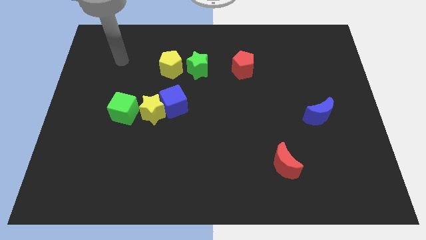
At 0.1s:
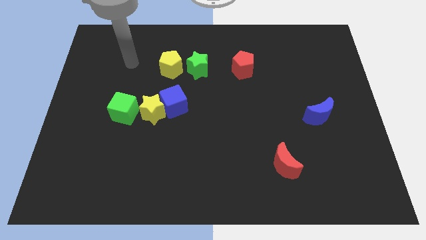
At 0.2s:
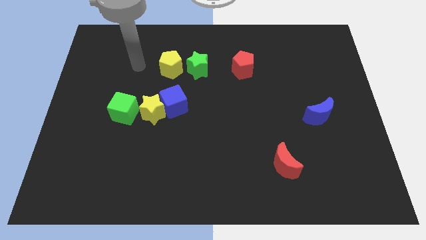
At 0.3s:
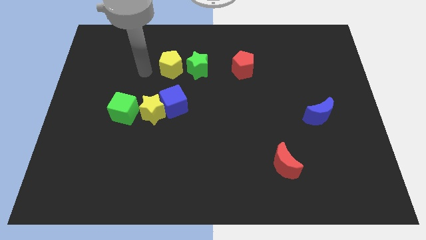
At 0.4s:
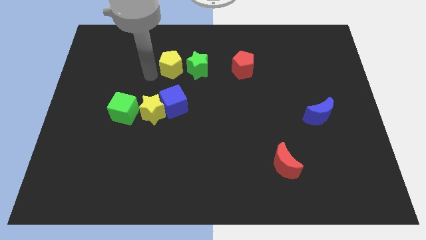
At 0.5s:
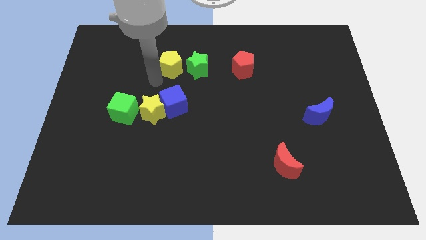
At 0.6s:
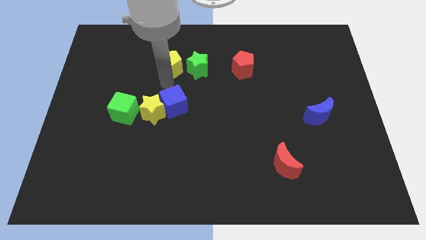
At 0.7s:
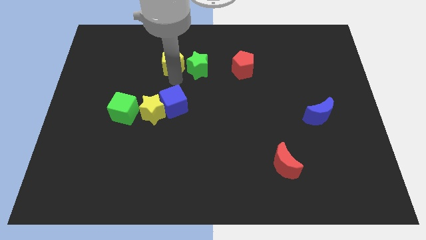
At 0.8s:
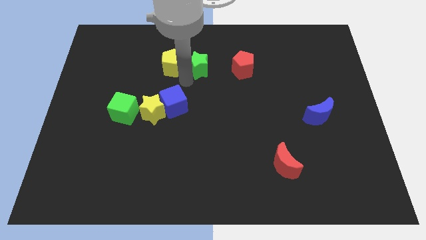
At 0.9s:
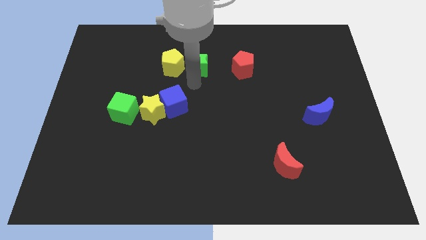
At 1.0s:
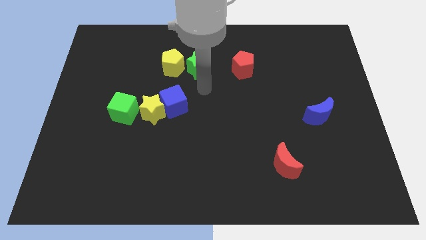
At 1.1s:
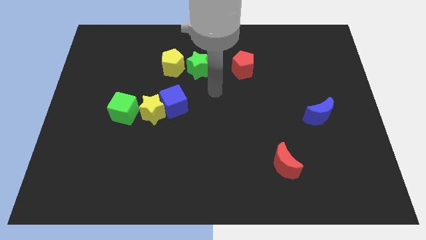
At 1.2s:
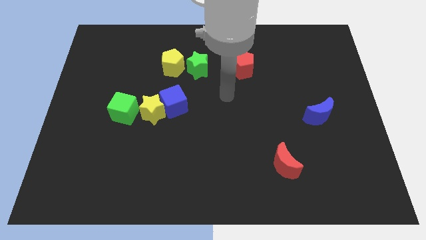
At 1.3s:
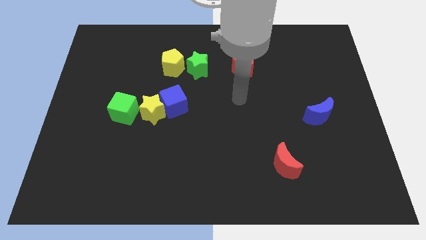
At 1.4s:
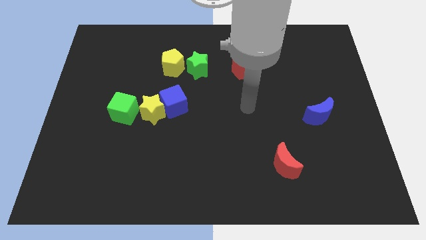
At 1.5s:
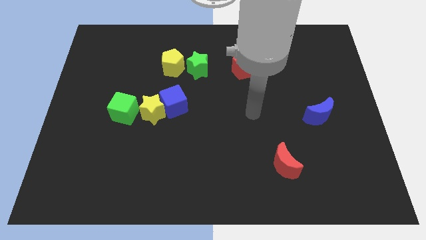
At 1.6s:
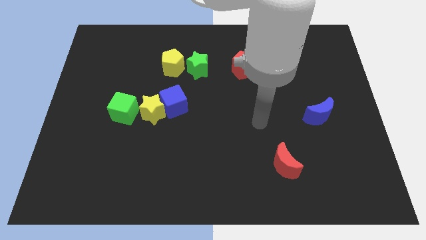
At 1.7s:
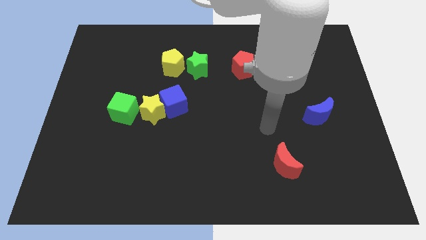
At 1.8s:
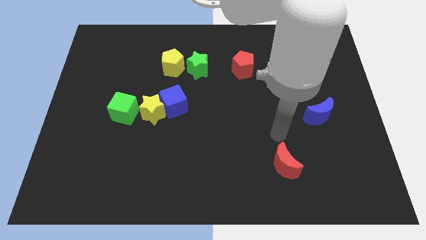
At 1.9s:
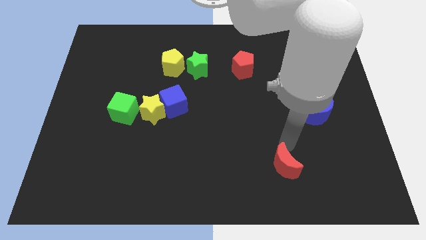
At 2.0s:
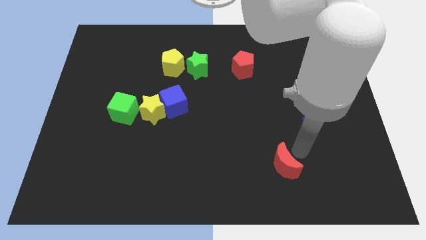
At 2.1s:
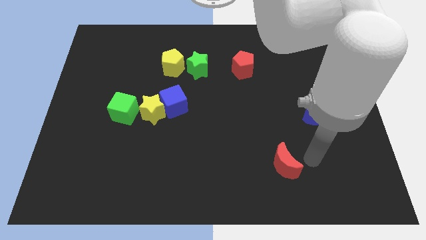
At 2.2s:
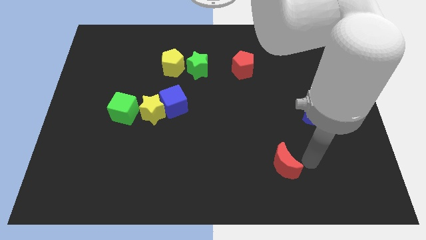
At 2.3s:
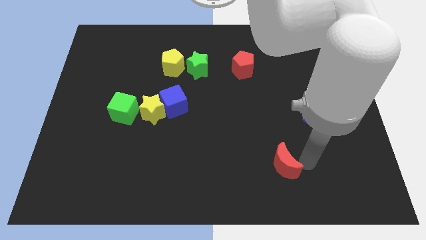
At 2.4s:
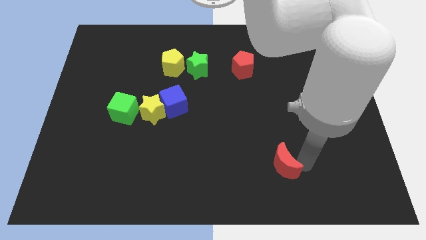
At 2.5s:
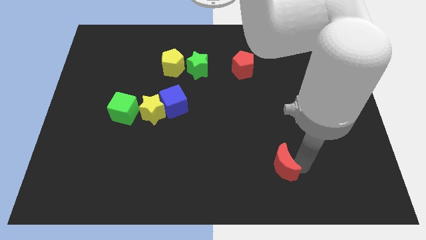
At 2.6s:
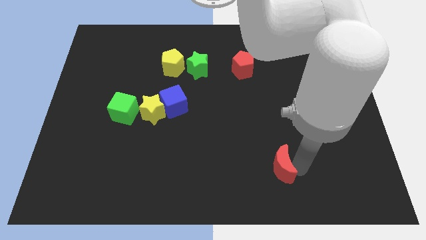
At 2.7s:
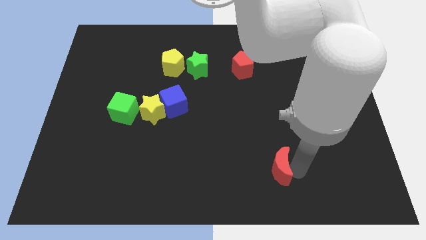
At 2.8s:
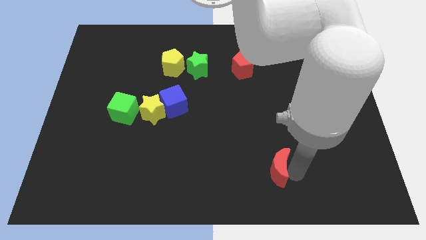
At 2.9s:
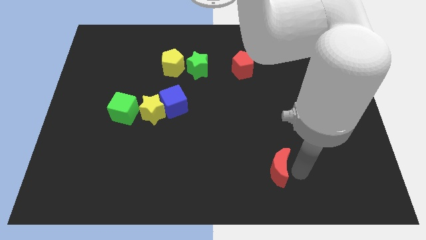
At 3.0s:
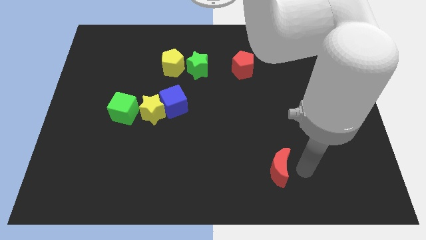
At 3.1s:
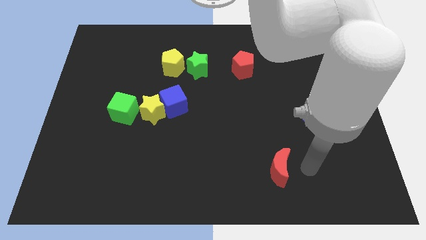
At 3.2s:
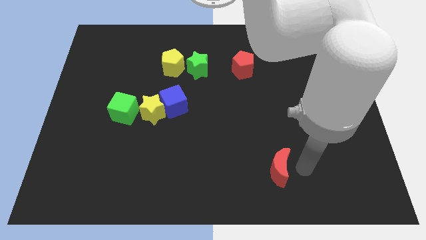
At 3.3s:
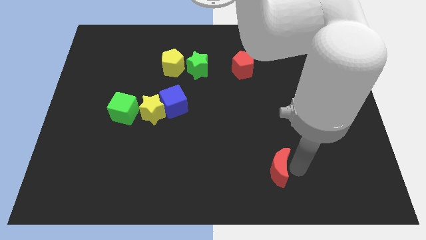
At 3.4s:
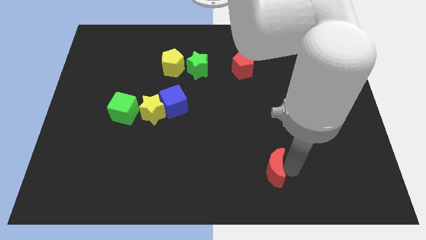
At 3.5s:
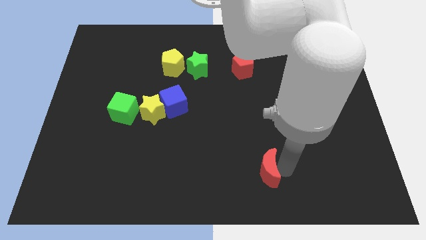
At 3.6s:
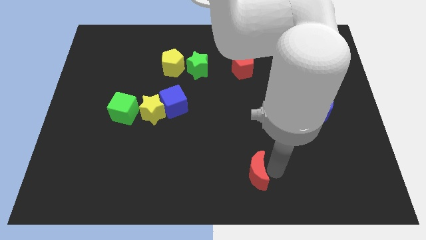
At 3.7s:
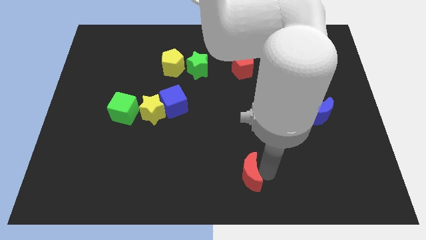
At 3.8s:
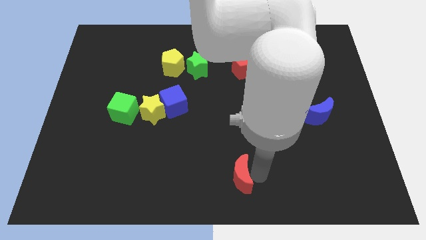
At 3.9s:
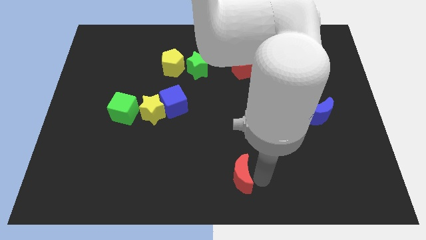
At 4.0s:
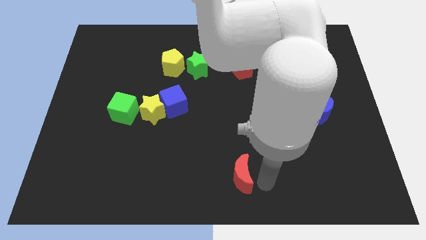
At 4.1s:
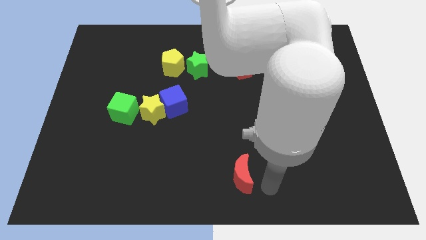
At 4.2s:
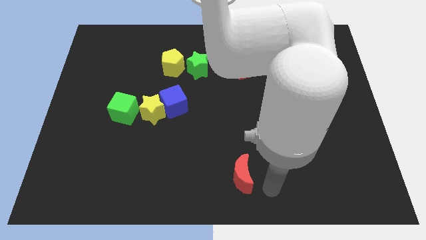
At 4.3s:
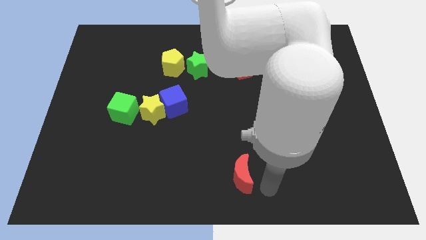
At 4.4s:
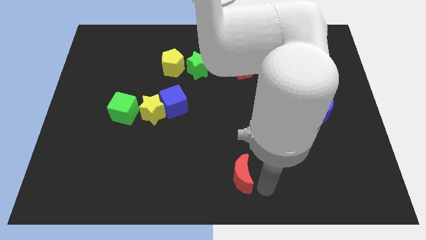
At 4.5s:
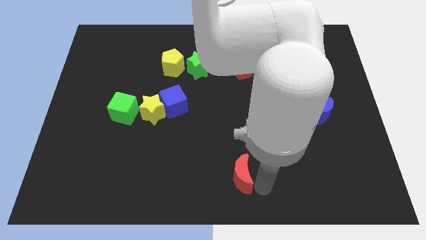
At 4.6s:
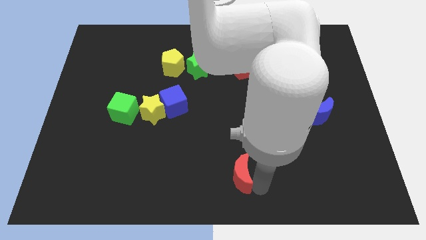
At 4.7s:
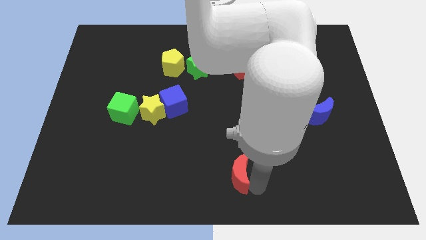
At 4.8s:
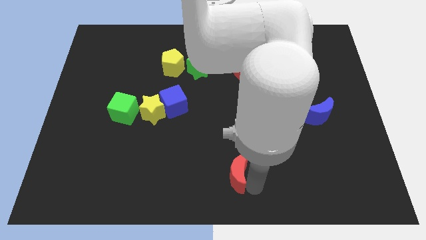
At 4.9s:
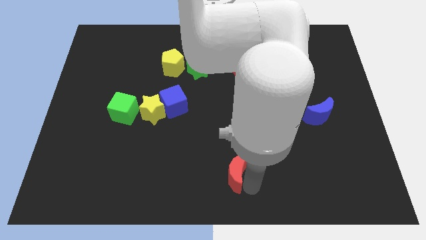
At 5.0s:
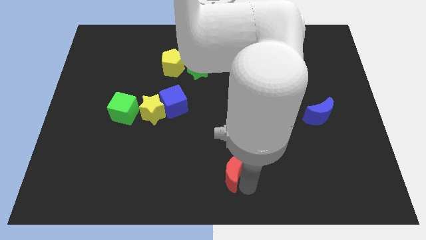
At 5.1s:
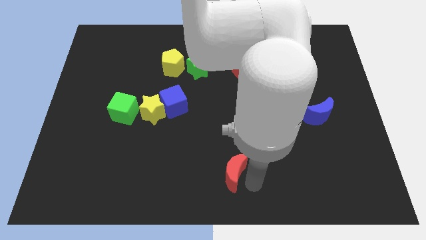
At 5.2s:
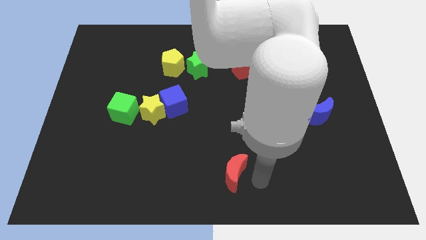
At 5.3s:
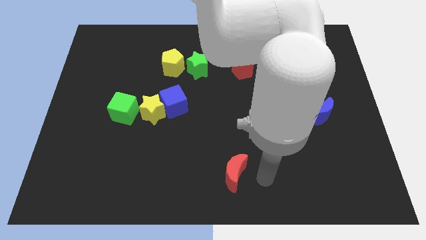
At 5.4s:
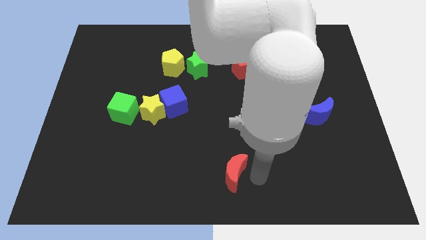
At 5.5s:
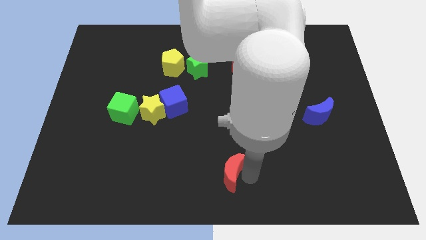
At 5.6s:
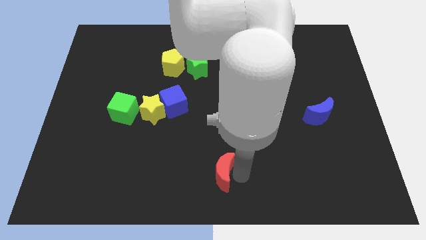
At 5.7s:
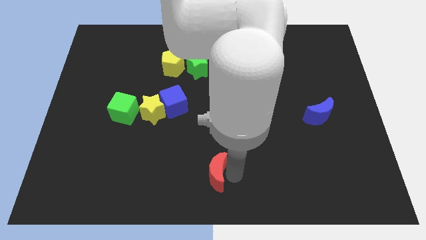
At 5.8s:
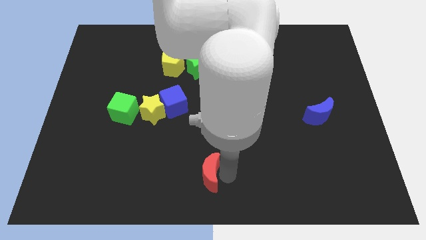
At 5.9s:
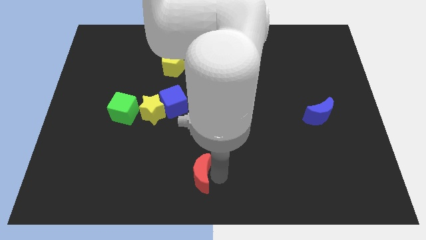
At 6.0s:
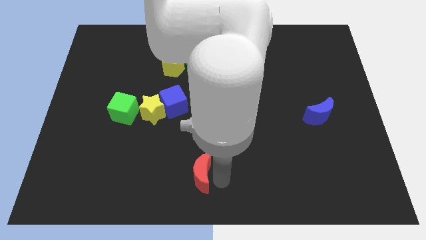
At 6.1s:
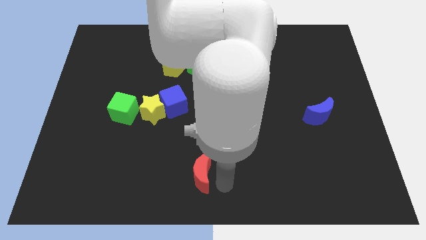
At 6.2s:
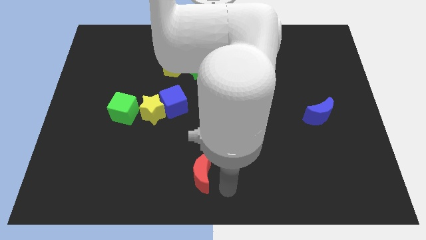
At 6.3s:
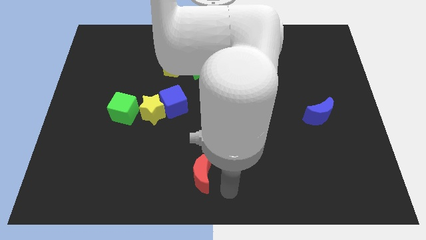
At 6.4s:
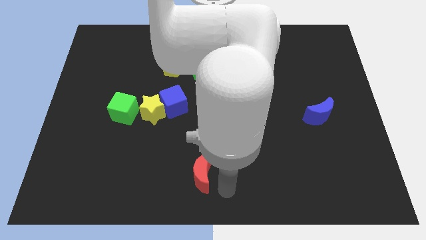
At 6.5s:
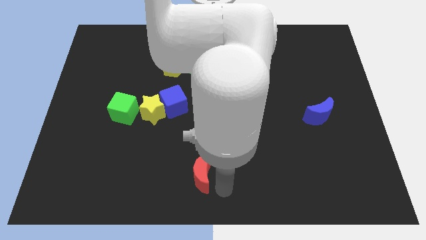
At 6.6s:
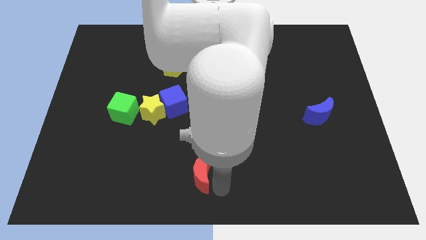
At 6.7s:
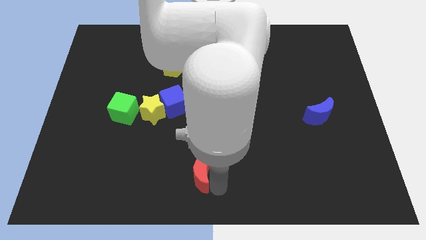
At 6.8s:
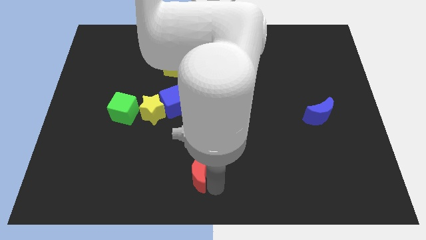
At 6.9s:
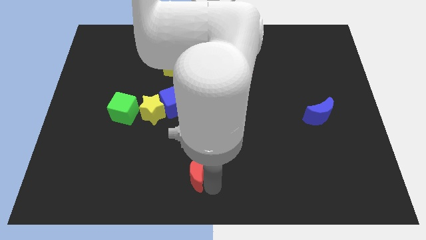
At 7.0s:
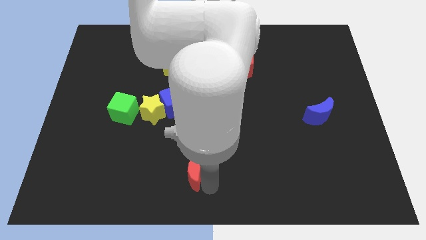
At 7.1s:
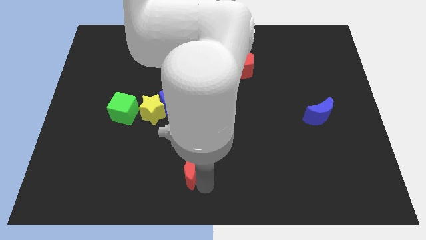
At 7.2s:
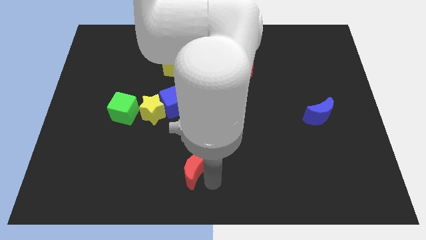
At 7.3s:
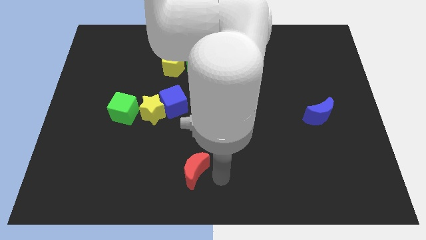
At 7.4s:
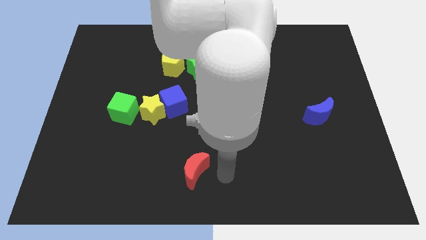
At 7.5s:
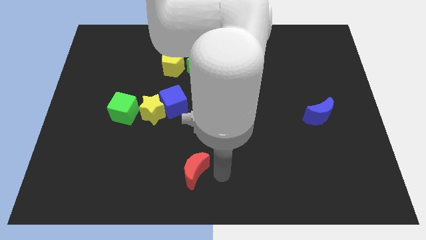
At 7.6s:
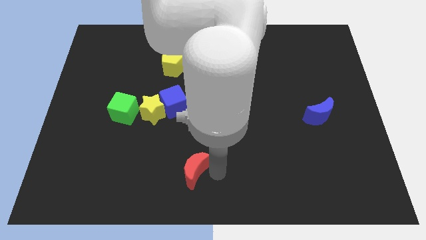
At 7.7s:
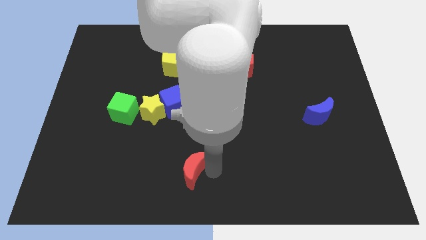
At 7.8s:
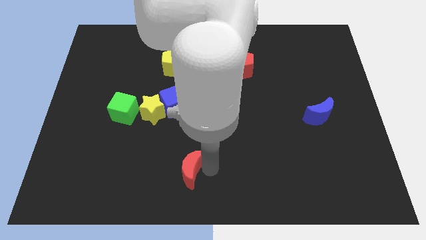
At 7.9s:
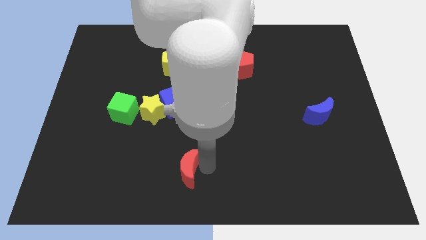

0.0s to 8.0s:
slide the red moon left
